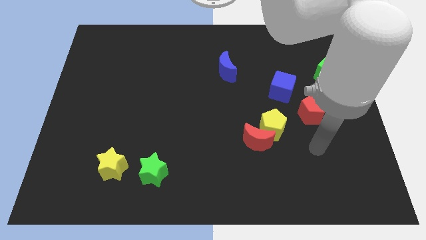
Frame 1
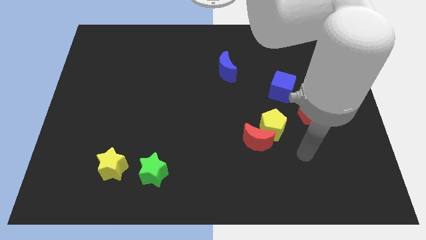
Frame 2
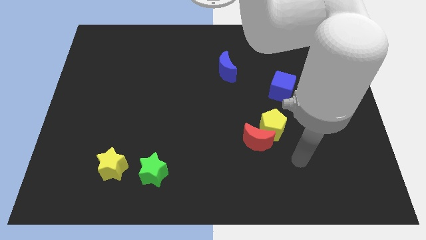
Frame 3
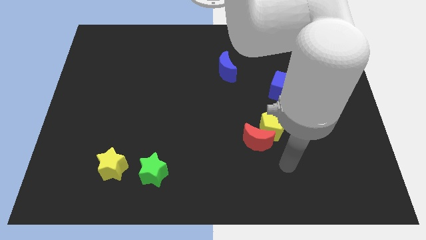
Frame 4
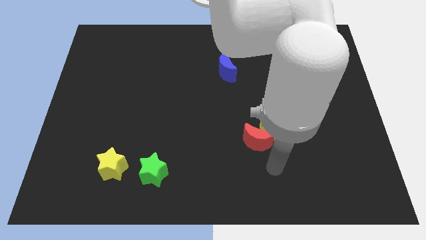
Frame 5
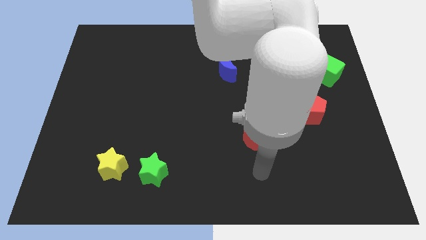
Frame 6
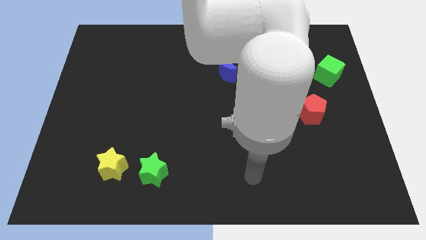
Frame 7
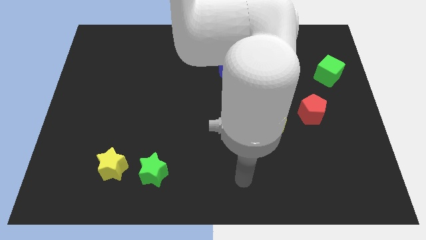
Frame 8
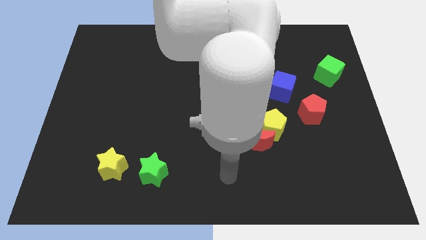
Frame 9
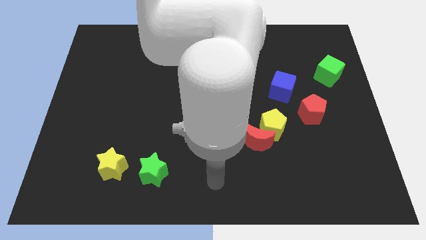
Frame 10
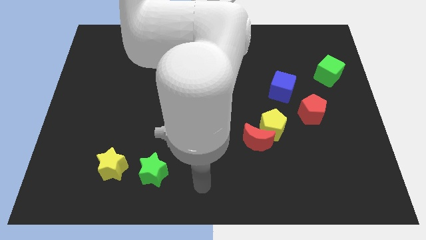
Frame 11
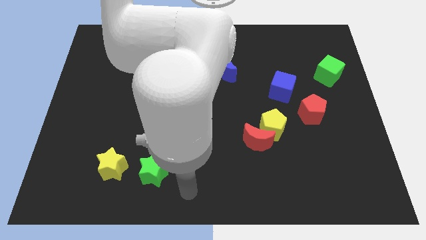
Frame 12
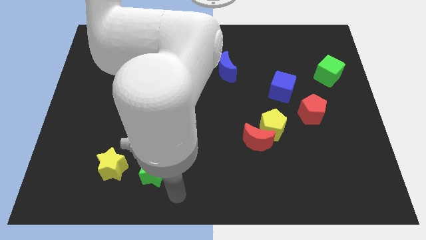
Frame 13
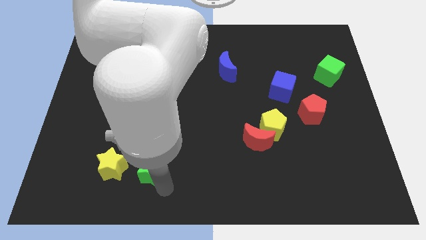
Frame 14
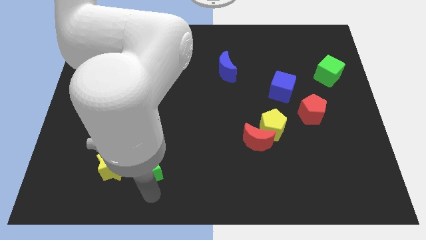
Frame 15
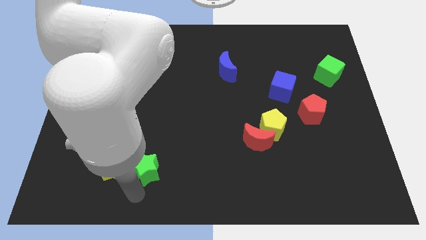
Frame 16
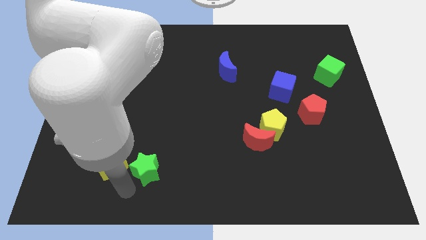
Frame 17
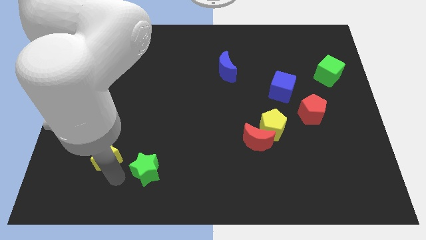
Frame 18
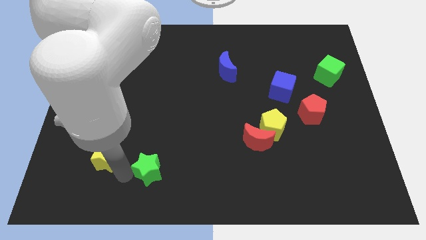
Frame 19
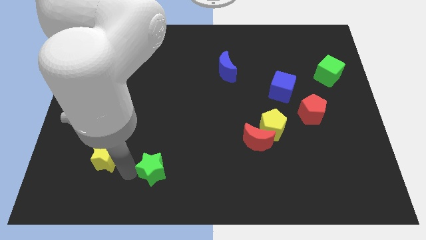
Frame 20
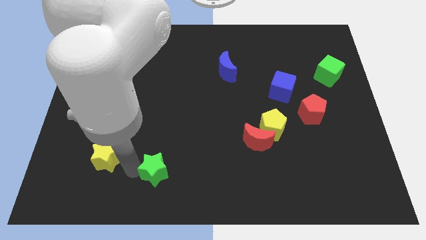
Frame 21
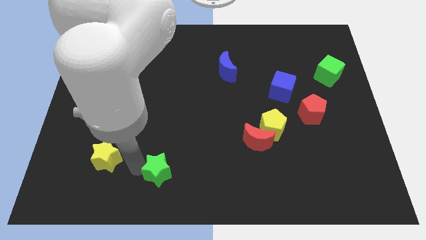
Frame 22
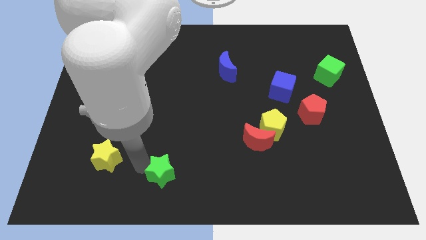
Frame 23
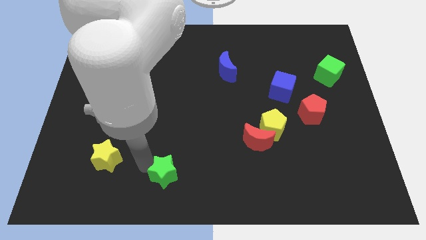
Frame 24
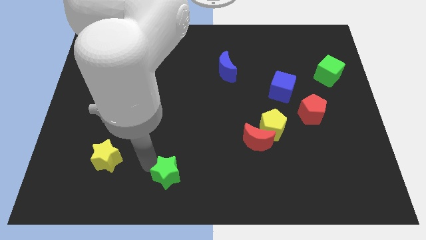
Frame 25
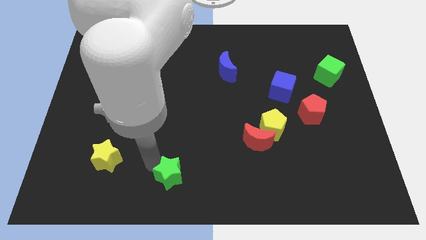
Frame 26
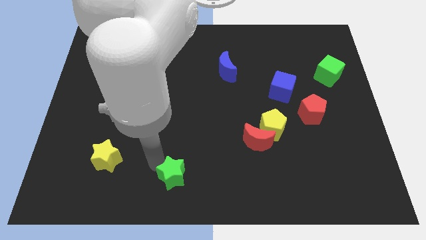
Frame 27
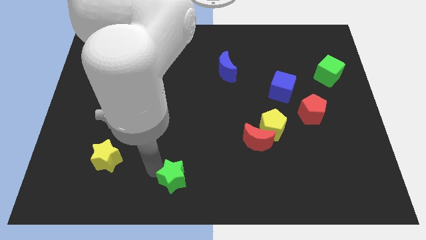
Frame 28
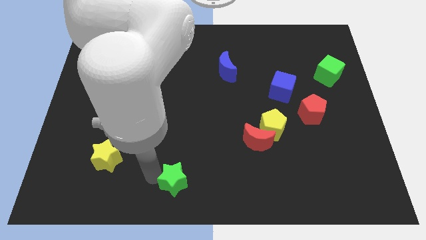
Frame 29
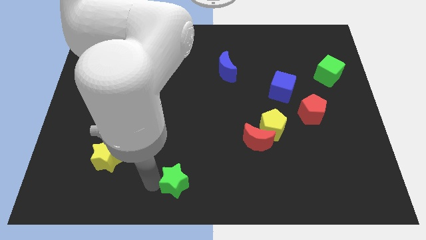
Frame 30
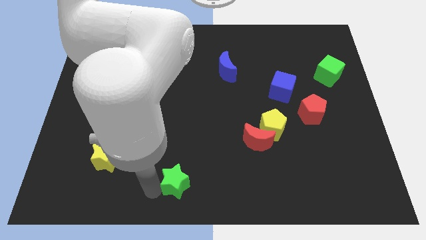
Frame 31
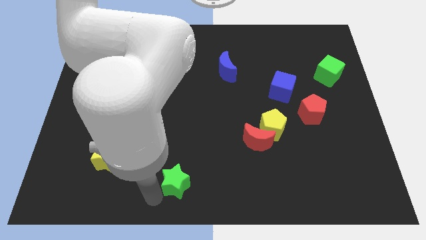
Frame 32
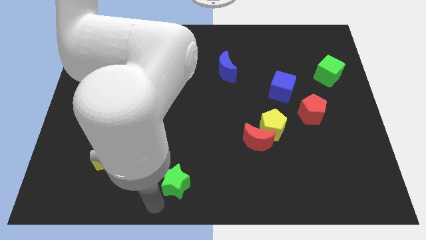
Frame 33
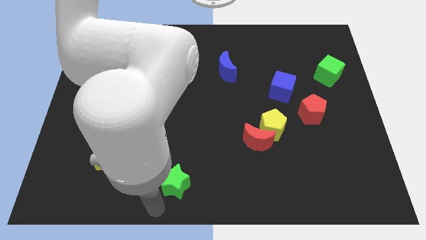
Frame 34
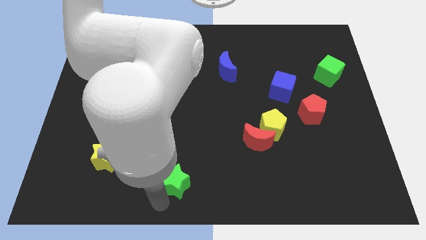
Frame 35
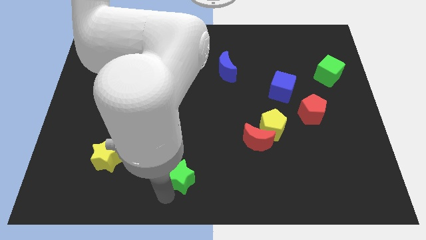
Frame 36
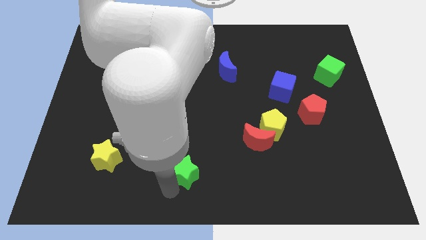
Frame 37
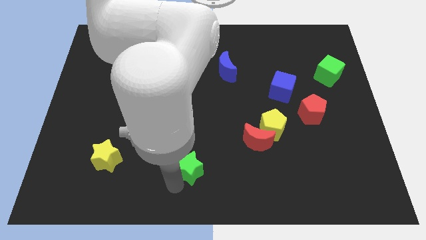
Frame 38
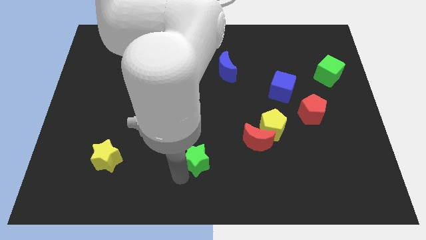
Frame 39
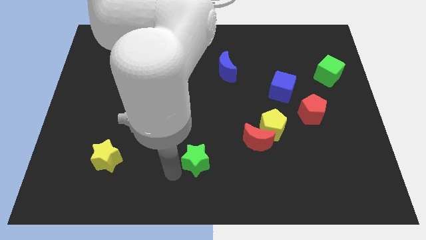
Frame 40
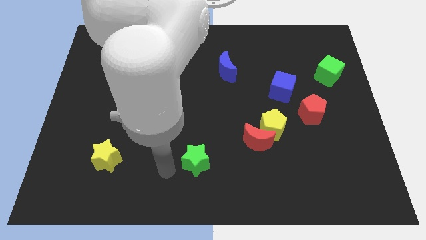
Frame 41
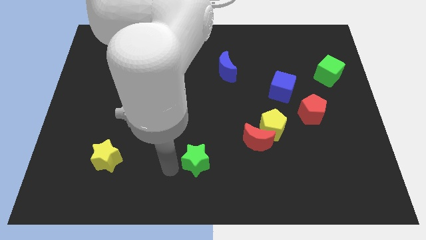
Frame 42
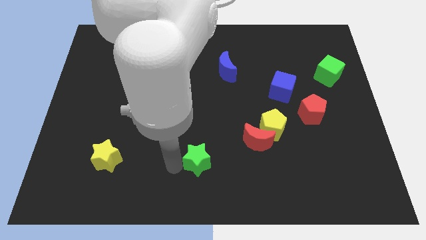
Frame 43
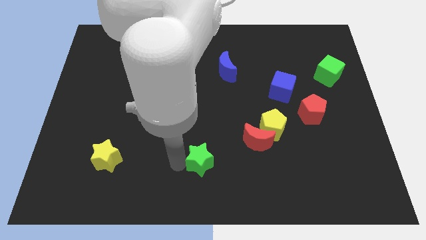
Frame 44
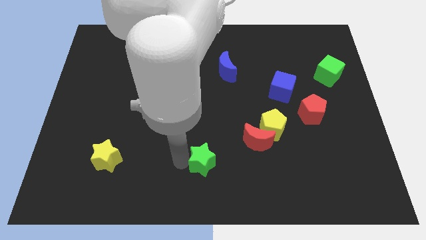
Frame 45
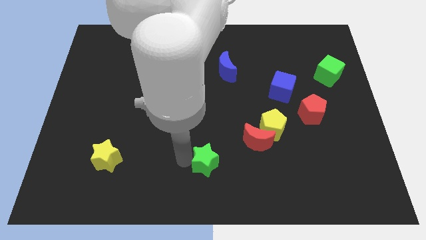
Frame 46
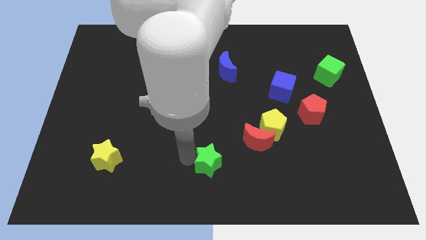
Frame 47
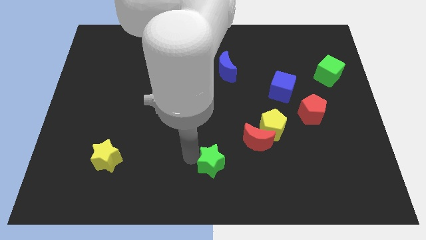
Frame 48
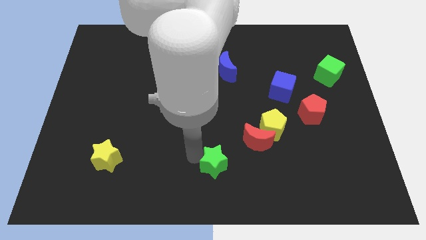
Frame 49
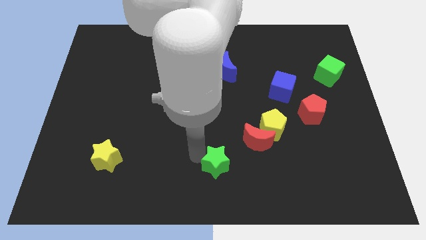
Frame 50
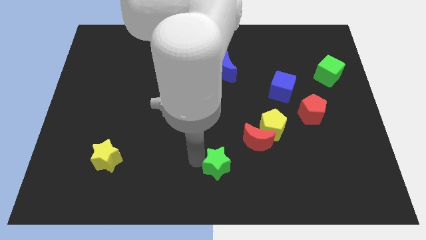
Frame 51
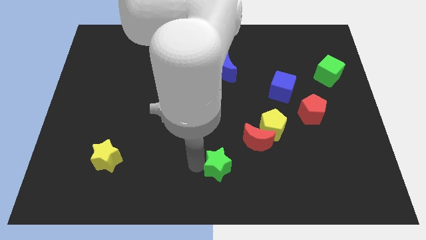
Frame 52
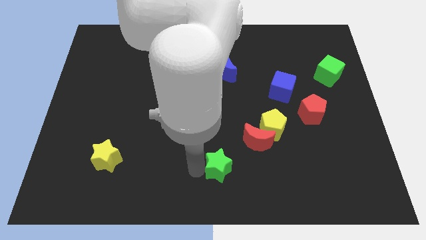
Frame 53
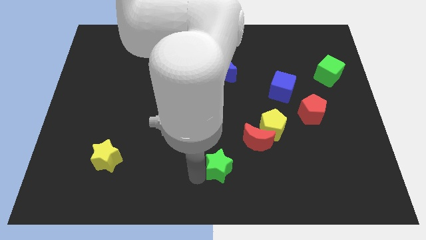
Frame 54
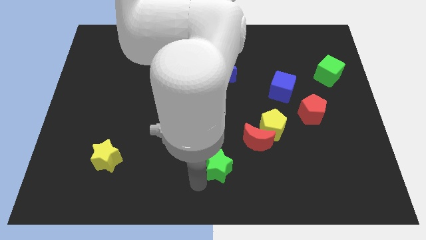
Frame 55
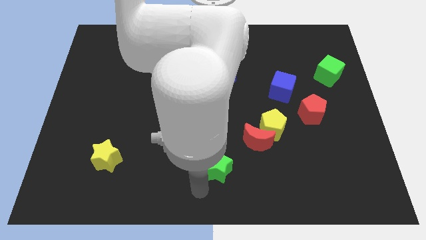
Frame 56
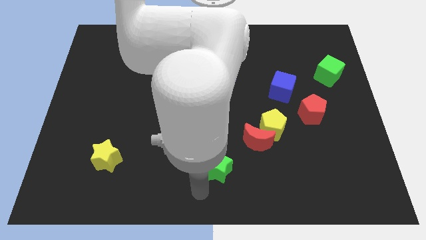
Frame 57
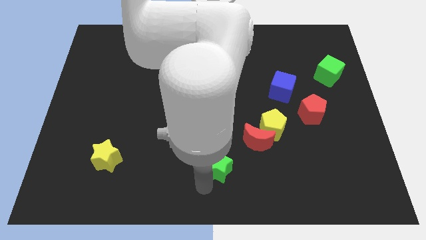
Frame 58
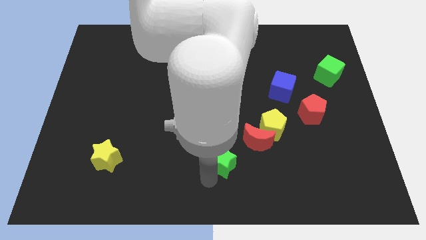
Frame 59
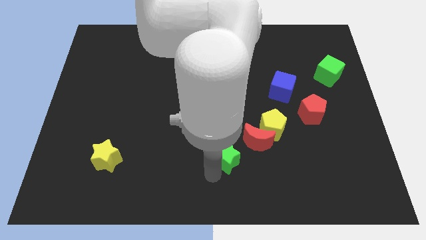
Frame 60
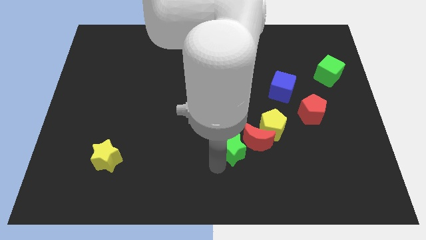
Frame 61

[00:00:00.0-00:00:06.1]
slide the green star towards the red moon

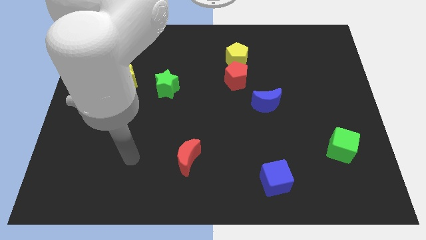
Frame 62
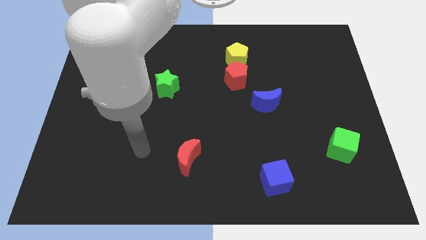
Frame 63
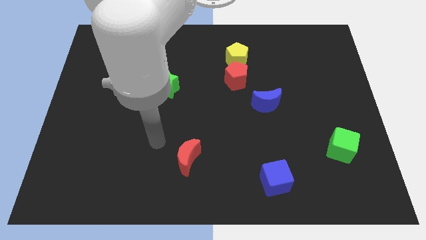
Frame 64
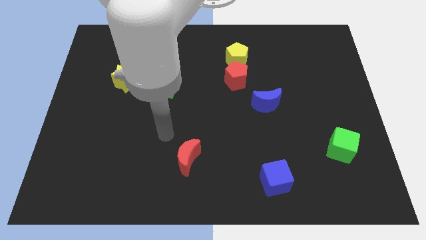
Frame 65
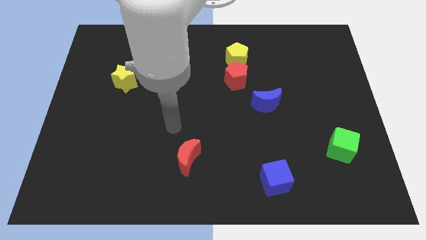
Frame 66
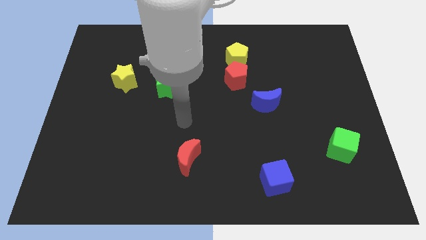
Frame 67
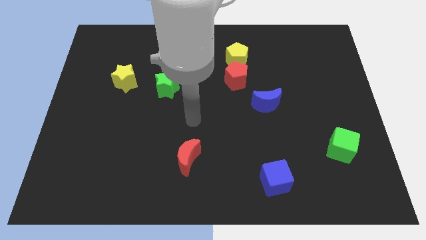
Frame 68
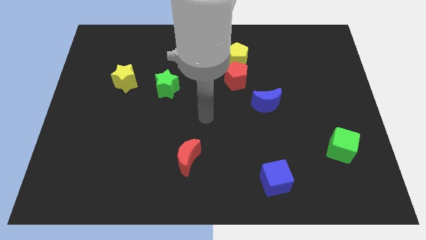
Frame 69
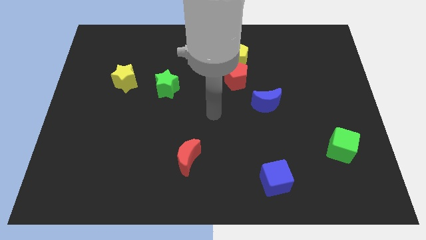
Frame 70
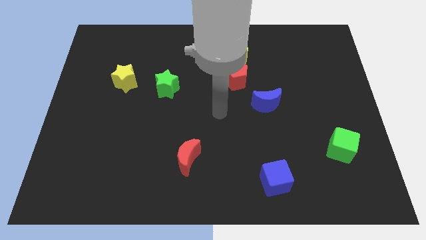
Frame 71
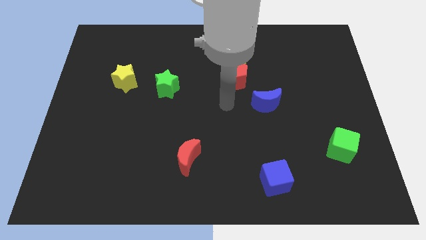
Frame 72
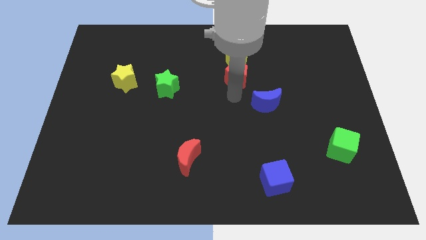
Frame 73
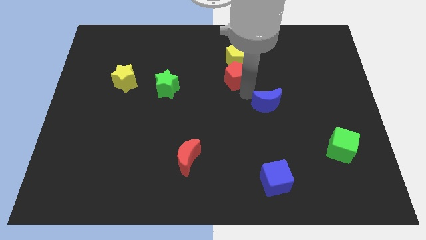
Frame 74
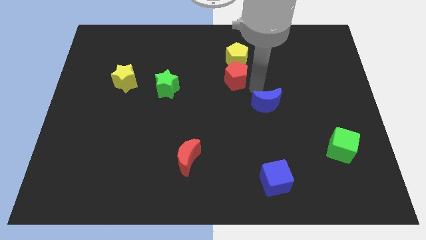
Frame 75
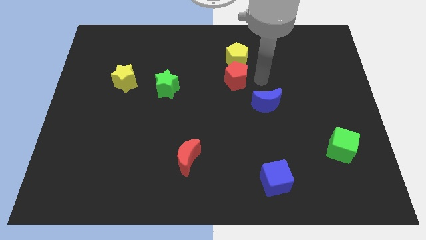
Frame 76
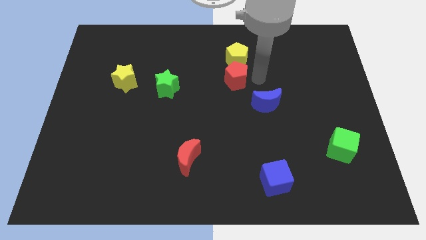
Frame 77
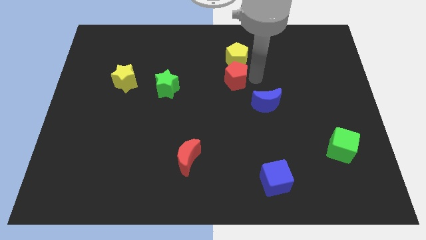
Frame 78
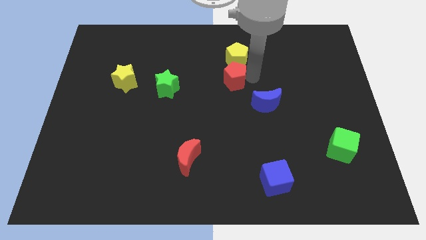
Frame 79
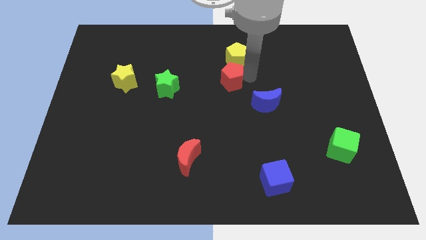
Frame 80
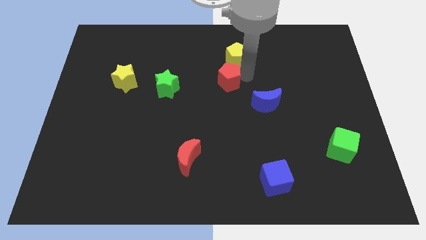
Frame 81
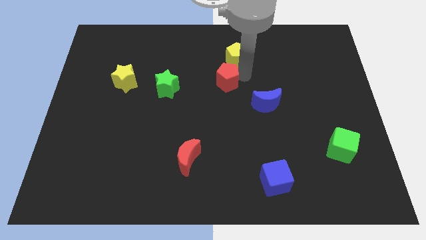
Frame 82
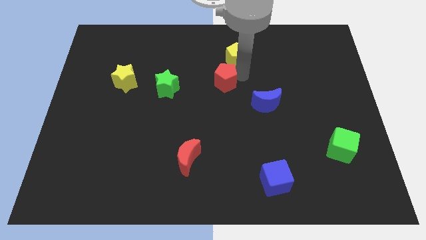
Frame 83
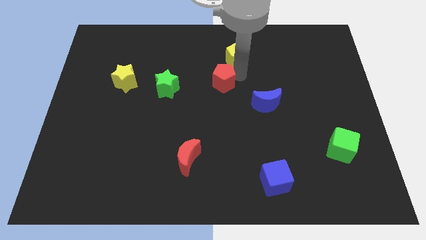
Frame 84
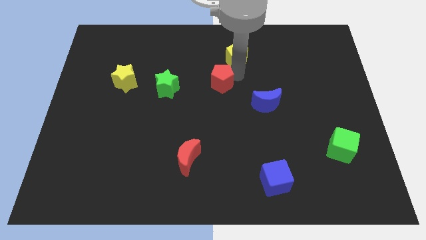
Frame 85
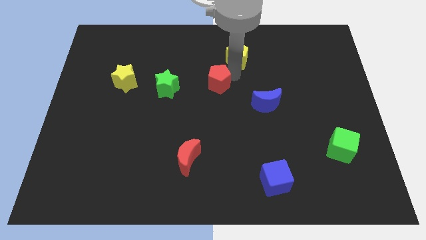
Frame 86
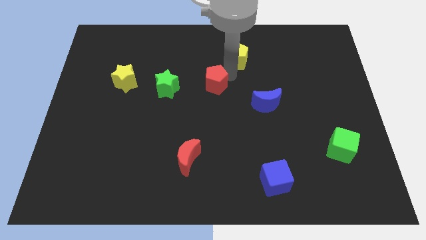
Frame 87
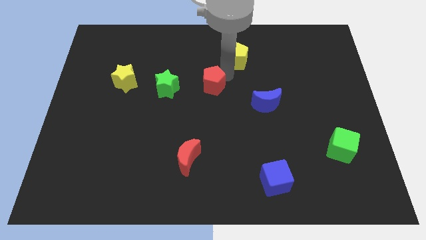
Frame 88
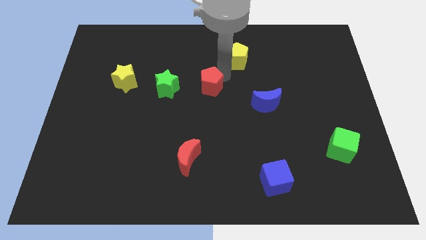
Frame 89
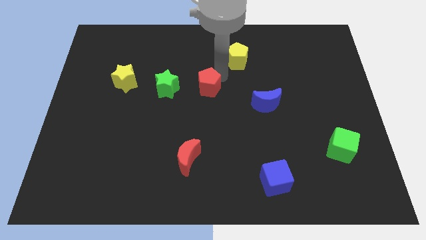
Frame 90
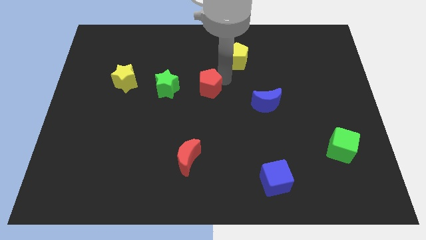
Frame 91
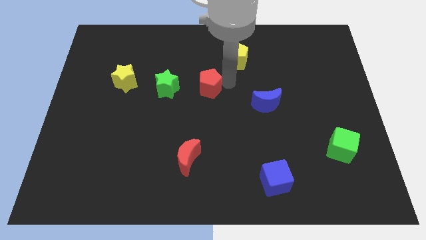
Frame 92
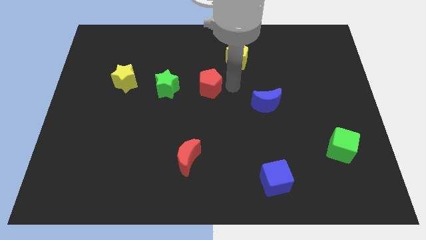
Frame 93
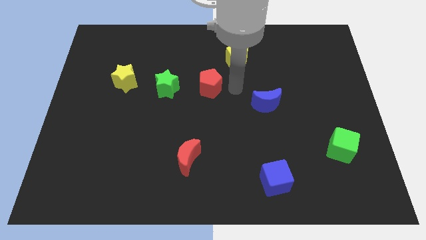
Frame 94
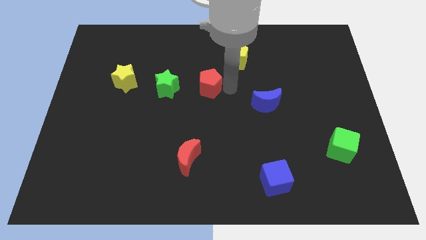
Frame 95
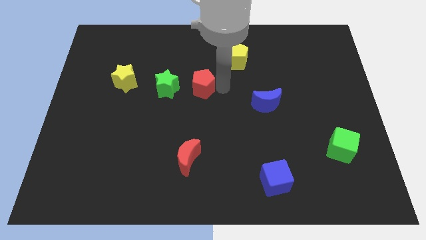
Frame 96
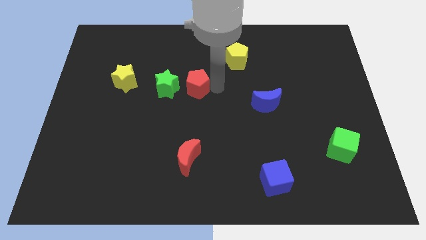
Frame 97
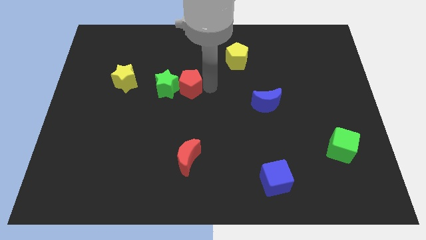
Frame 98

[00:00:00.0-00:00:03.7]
put the red pentagon towards the green star
